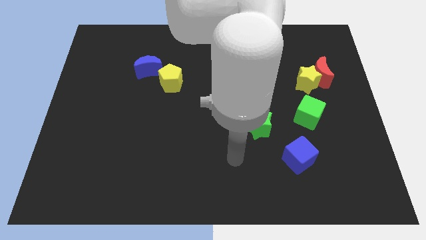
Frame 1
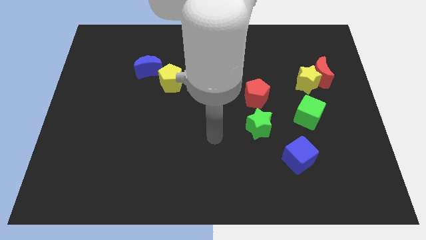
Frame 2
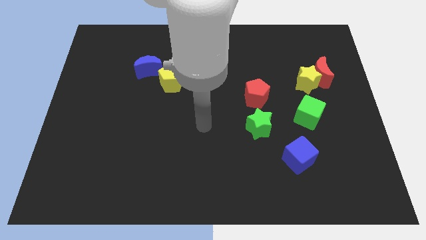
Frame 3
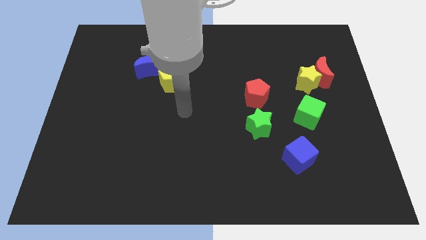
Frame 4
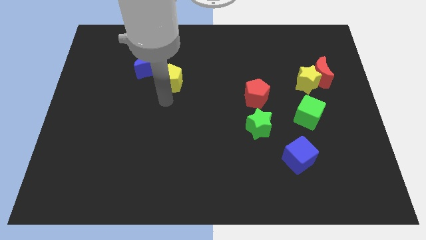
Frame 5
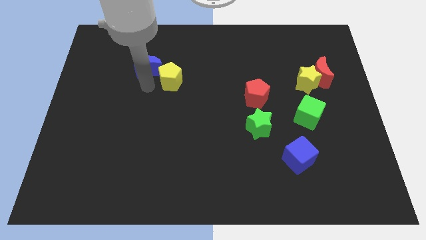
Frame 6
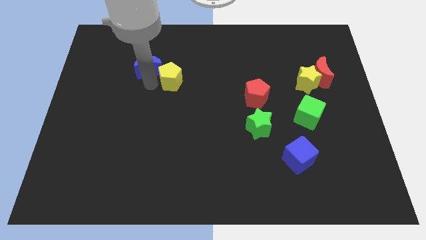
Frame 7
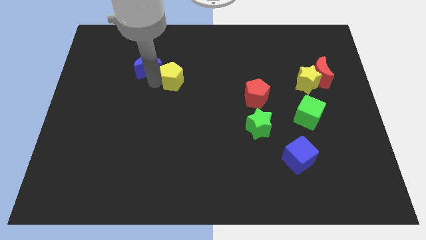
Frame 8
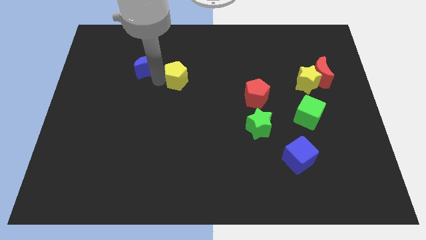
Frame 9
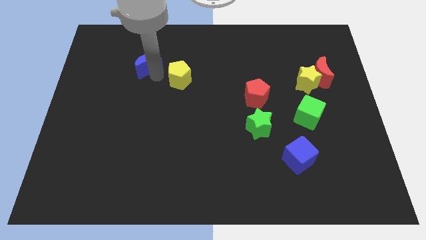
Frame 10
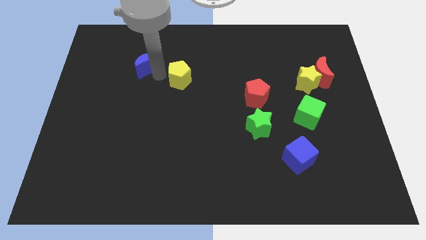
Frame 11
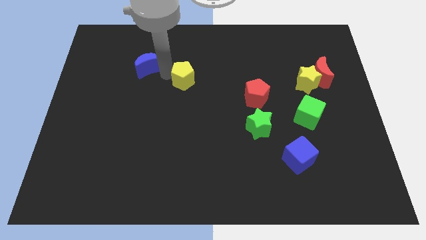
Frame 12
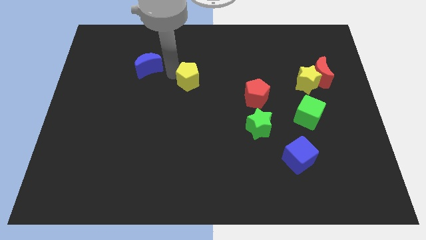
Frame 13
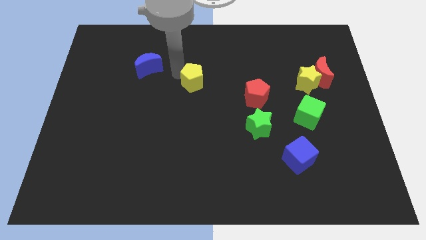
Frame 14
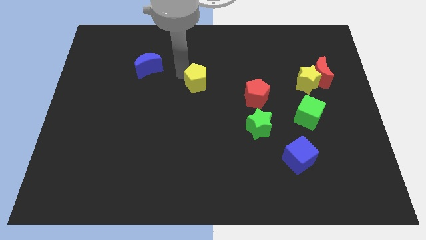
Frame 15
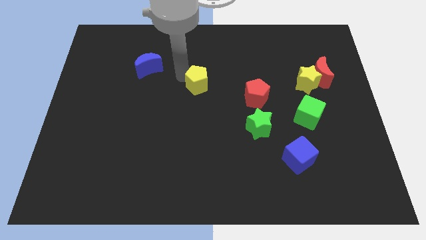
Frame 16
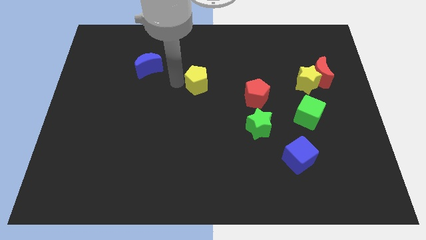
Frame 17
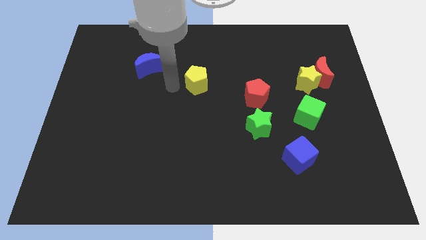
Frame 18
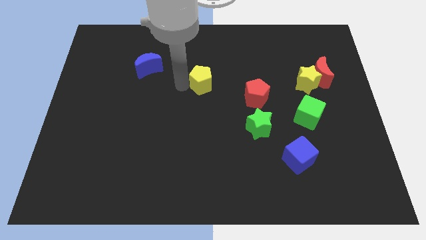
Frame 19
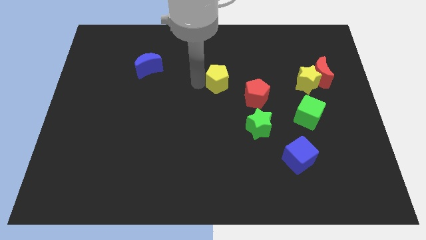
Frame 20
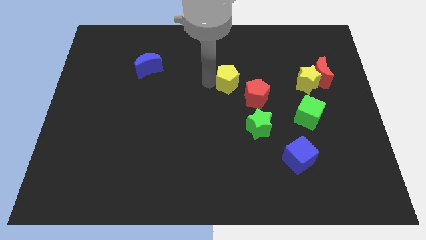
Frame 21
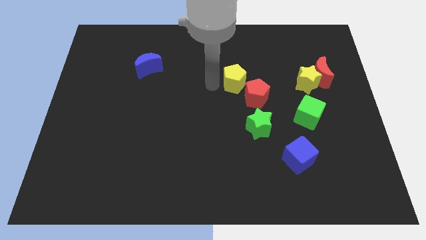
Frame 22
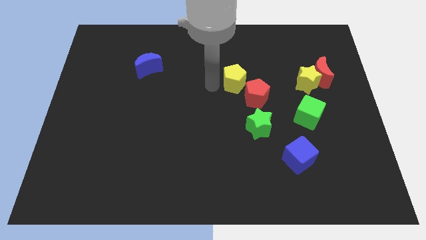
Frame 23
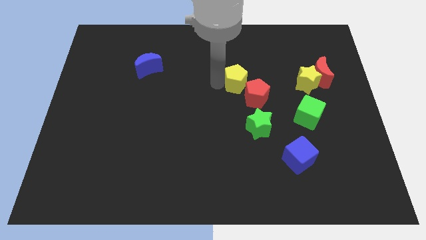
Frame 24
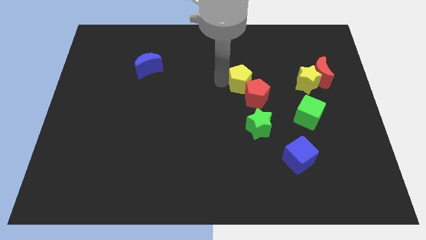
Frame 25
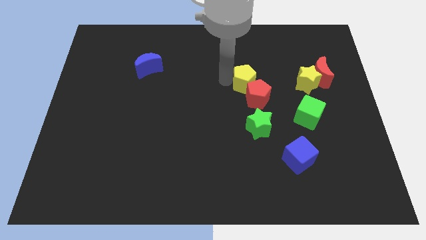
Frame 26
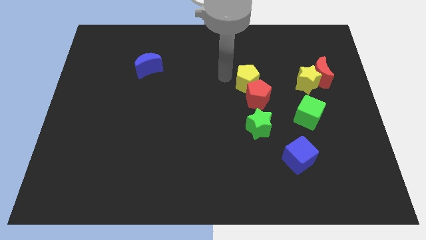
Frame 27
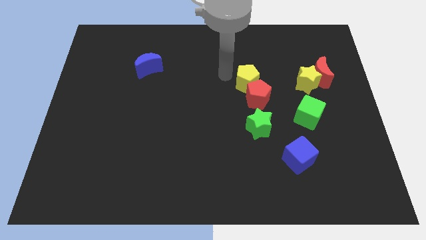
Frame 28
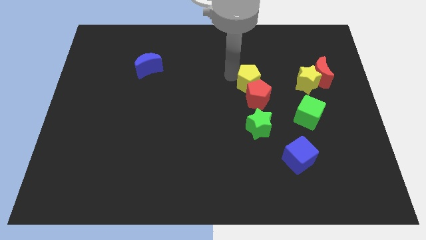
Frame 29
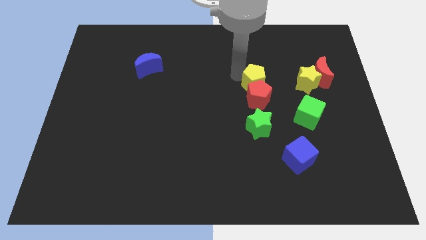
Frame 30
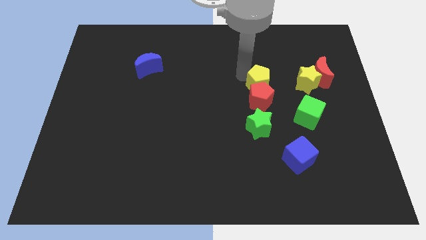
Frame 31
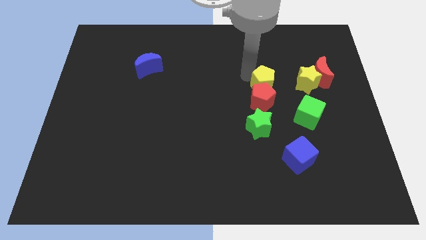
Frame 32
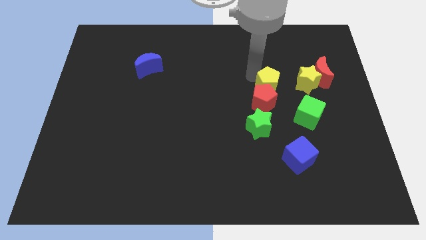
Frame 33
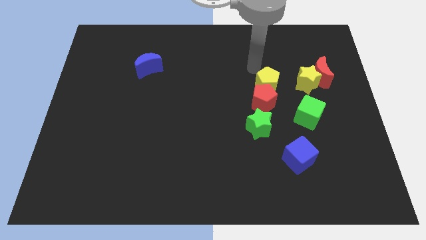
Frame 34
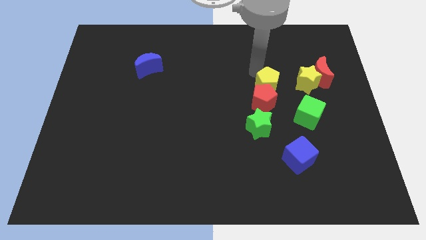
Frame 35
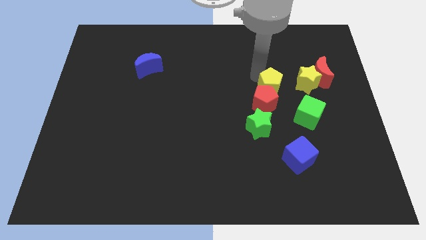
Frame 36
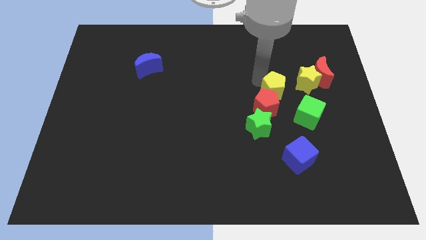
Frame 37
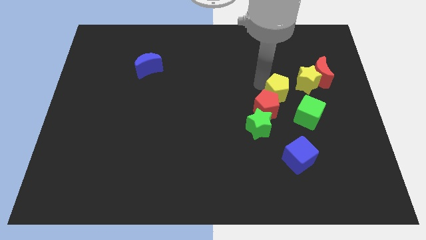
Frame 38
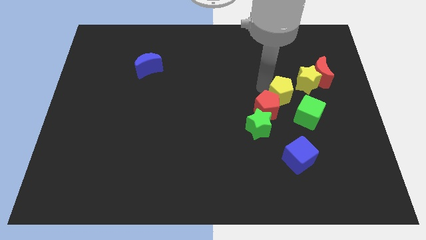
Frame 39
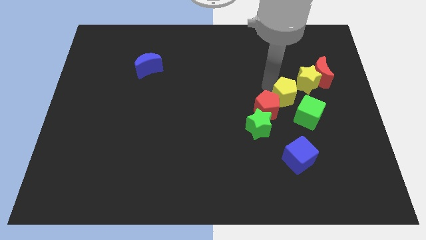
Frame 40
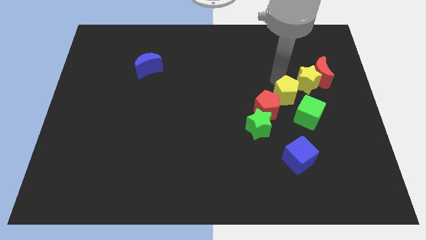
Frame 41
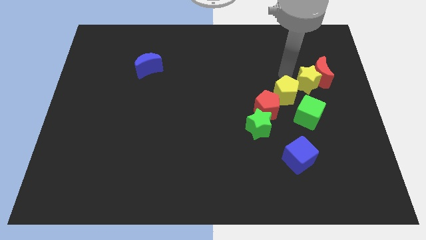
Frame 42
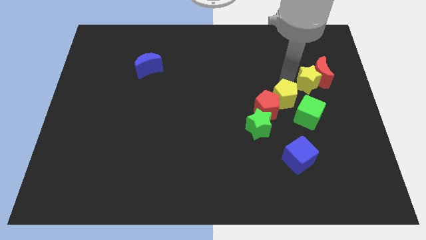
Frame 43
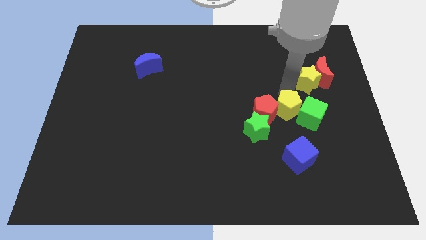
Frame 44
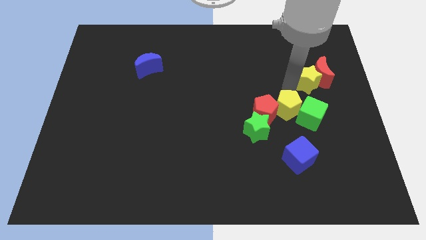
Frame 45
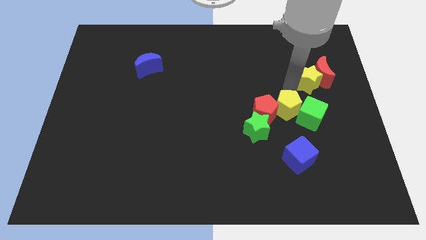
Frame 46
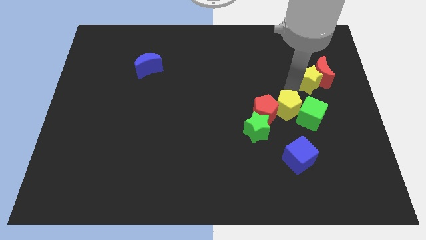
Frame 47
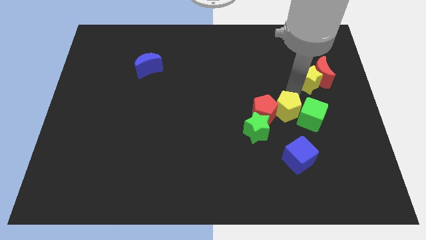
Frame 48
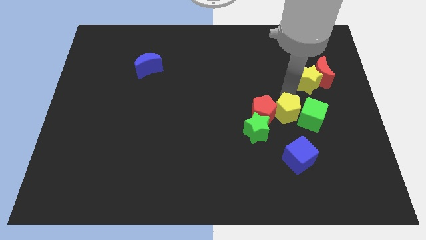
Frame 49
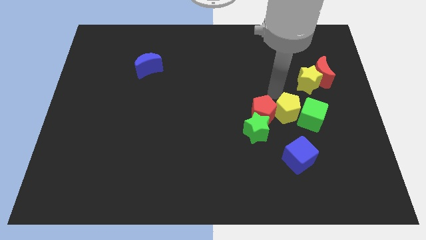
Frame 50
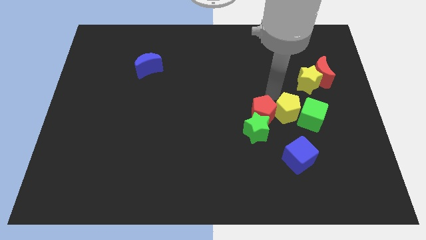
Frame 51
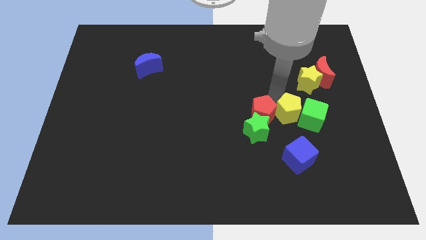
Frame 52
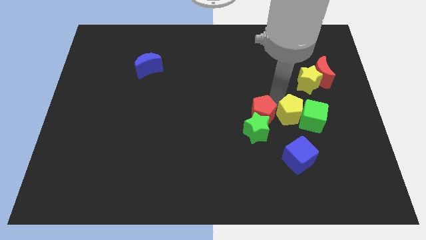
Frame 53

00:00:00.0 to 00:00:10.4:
slide the yellow pentagon to the right of the green star

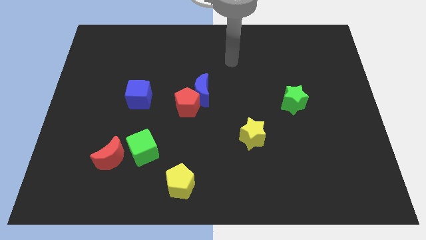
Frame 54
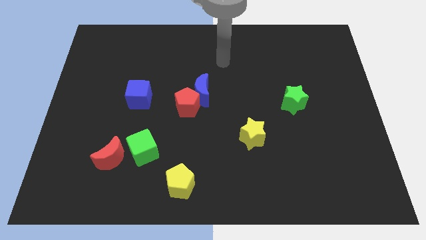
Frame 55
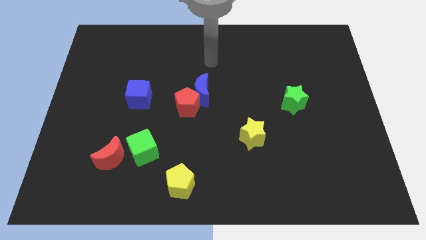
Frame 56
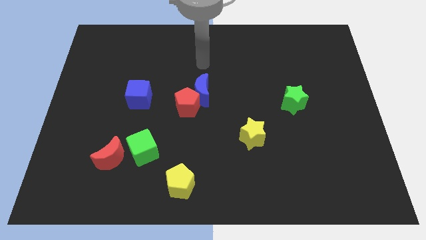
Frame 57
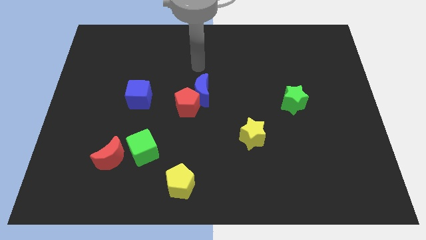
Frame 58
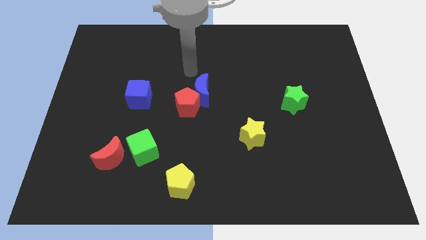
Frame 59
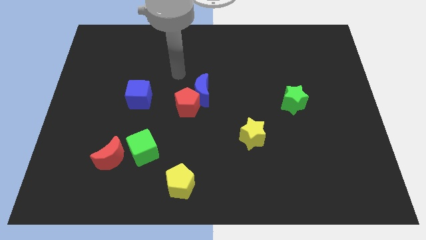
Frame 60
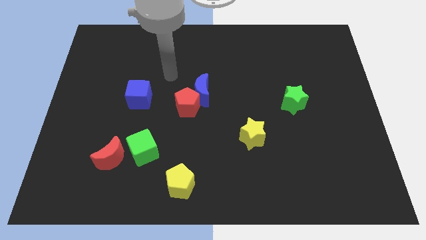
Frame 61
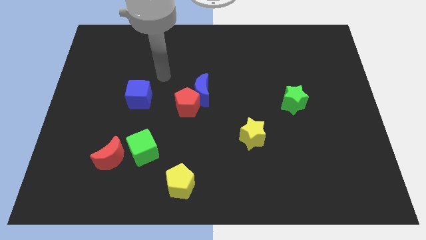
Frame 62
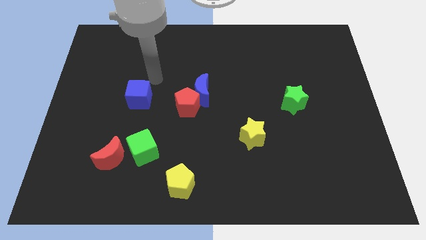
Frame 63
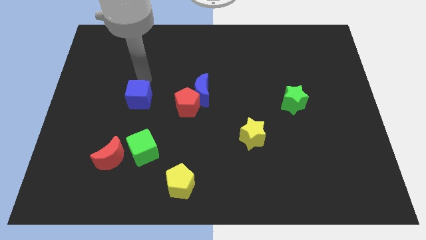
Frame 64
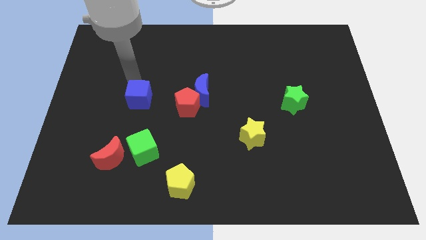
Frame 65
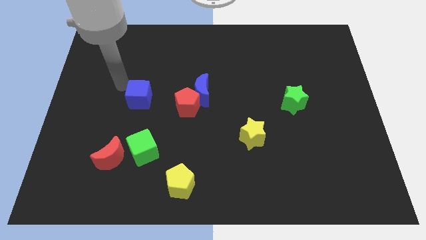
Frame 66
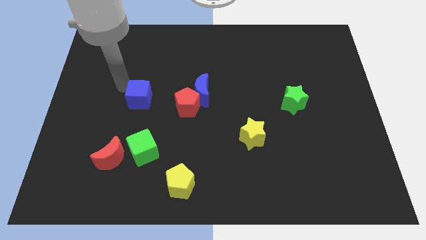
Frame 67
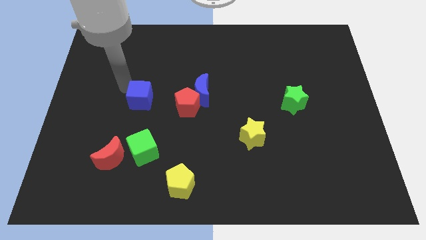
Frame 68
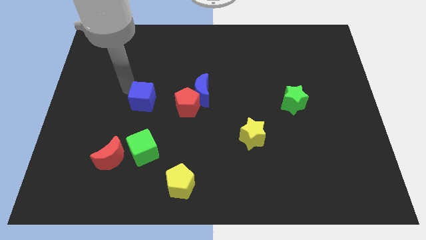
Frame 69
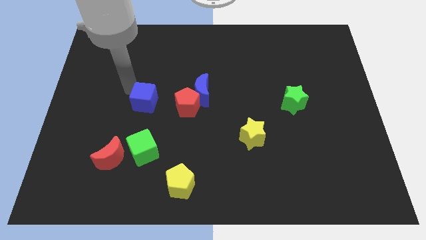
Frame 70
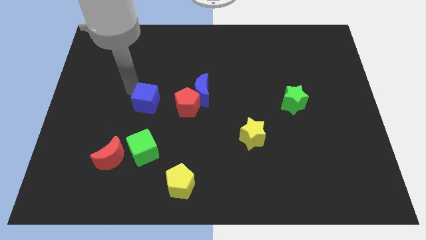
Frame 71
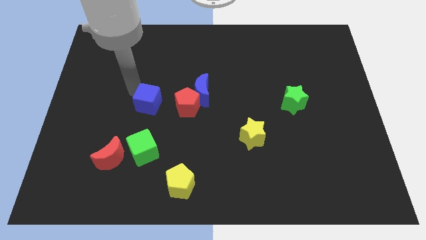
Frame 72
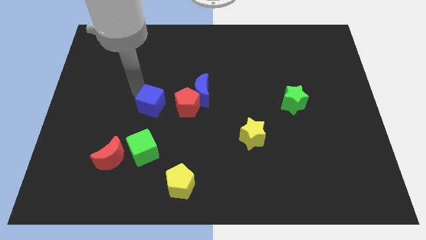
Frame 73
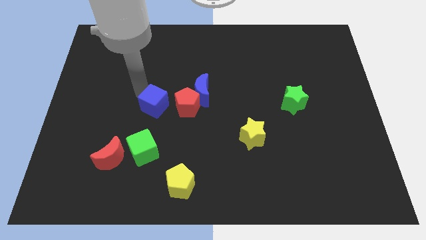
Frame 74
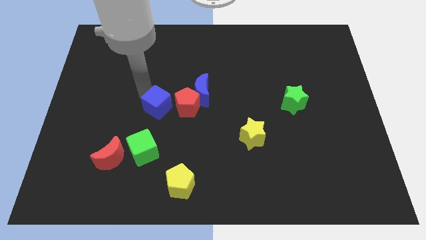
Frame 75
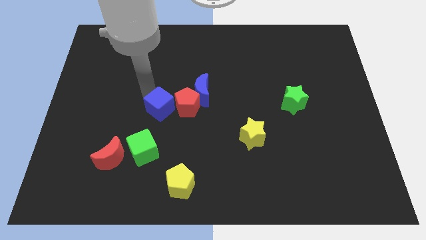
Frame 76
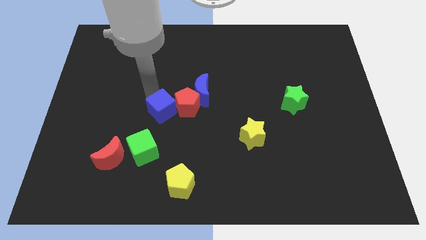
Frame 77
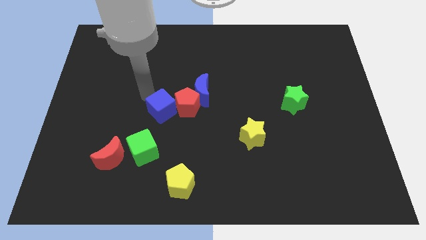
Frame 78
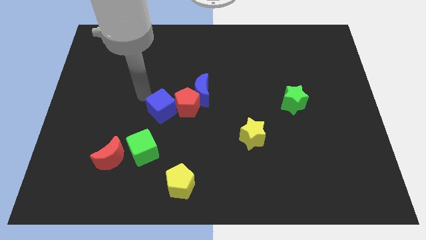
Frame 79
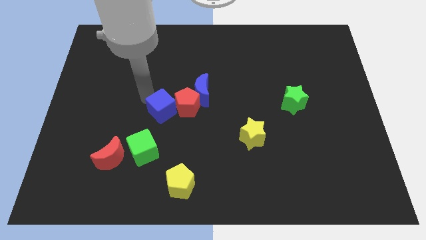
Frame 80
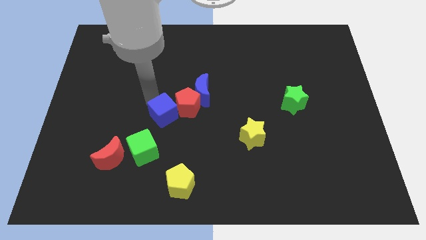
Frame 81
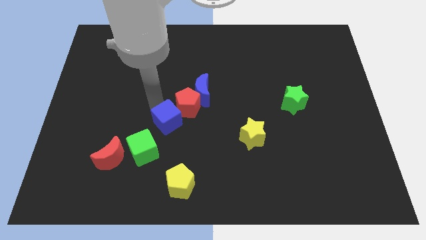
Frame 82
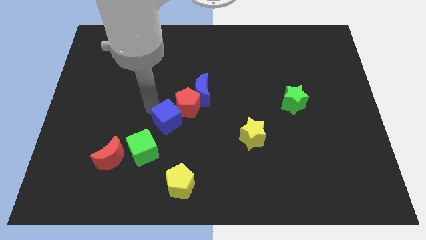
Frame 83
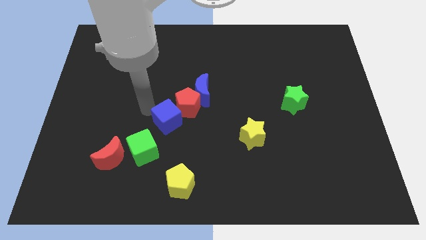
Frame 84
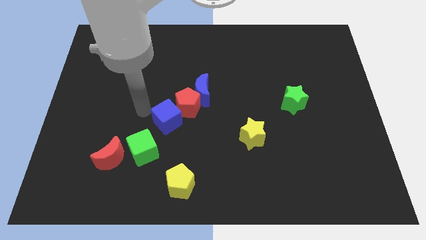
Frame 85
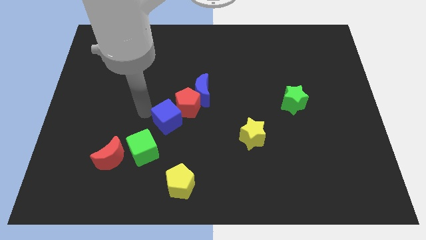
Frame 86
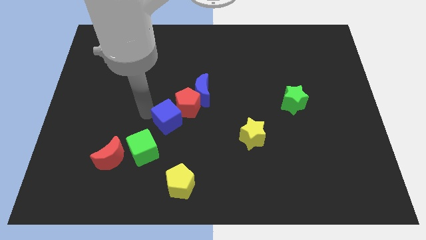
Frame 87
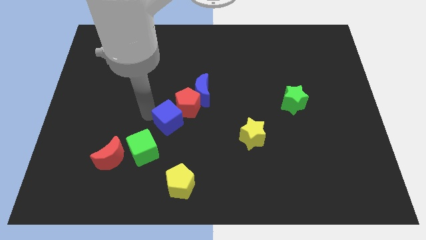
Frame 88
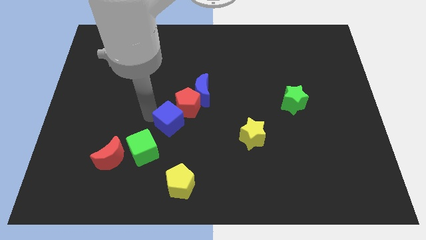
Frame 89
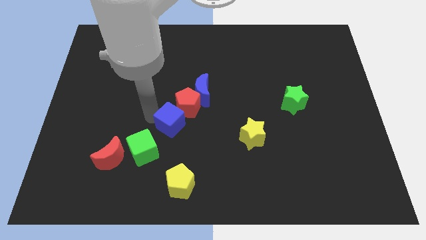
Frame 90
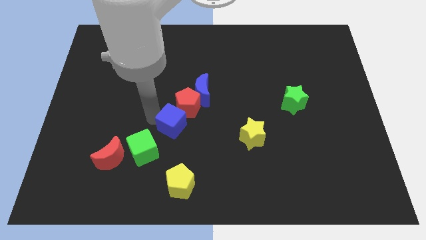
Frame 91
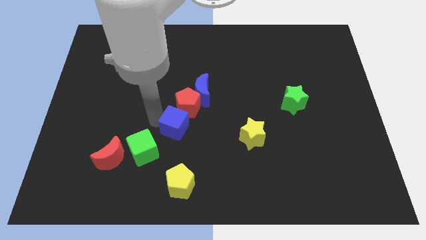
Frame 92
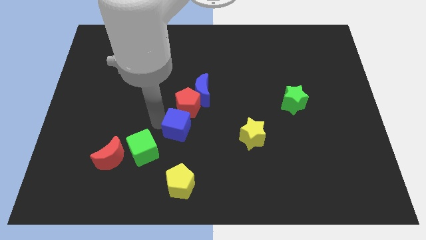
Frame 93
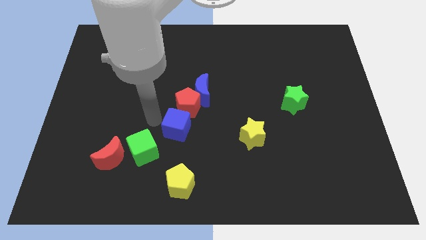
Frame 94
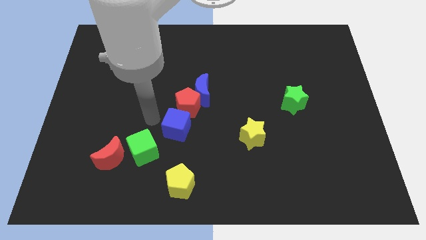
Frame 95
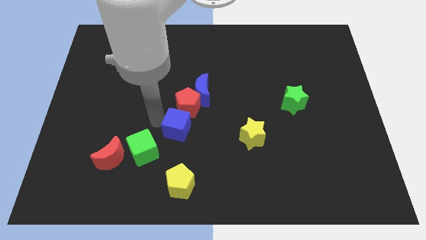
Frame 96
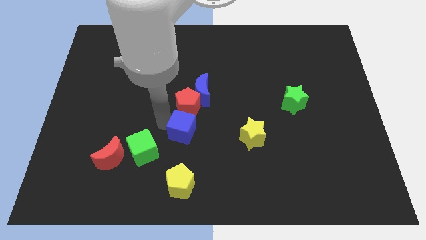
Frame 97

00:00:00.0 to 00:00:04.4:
move the blue cube just left of the yellow star
